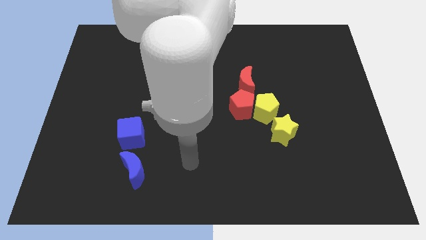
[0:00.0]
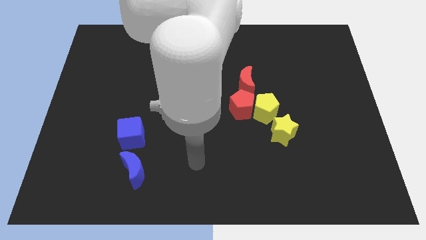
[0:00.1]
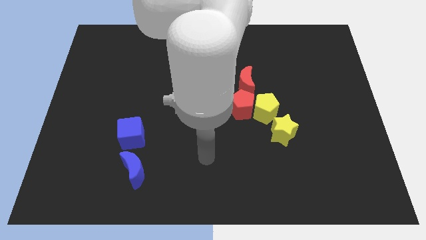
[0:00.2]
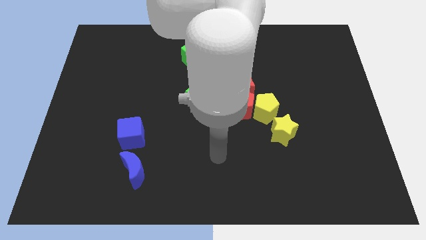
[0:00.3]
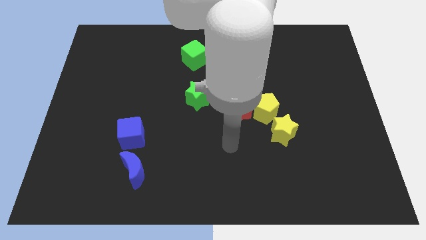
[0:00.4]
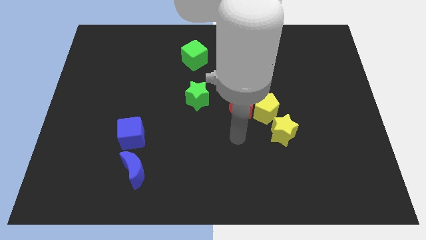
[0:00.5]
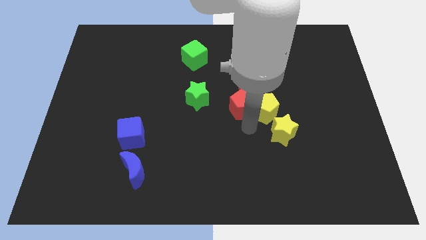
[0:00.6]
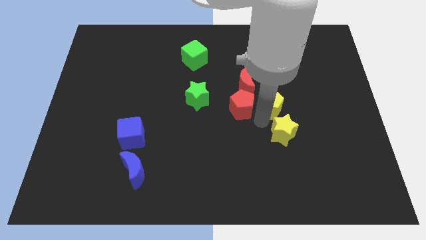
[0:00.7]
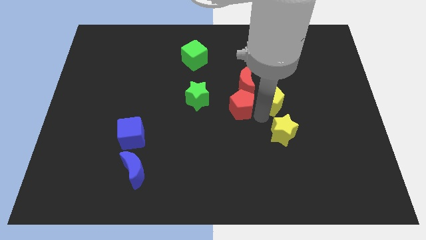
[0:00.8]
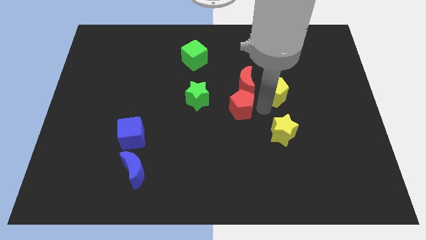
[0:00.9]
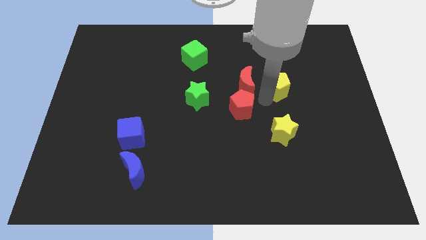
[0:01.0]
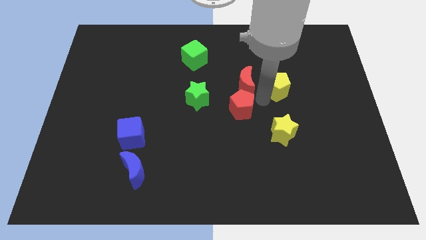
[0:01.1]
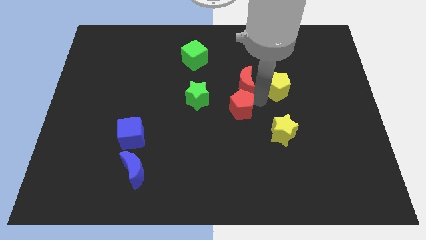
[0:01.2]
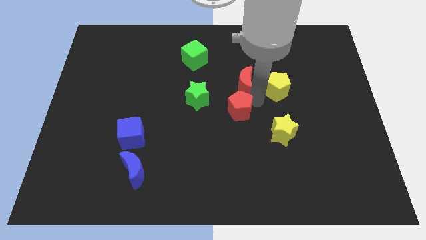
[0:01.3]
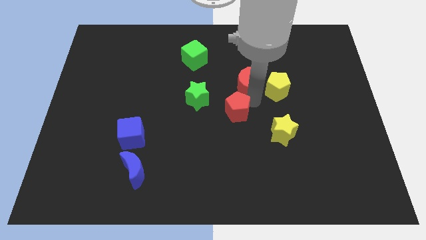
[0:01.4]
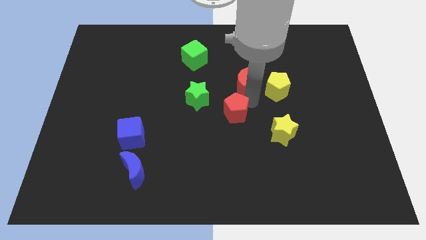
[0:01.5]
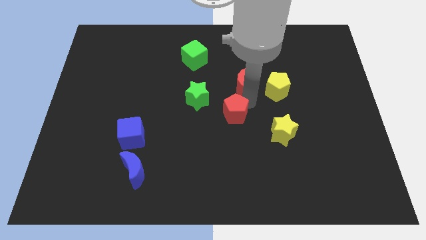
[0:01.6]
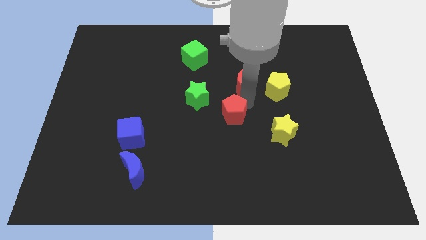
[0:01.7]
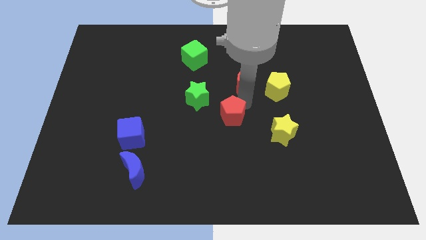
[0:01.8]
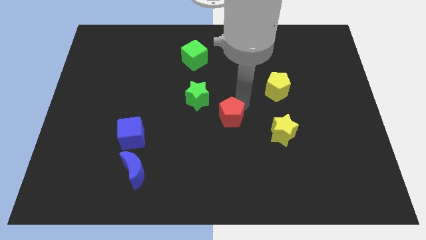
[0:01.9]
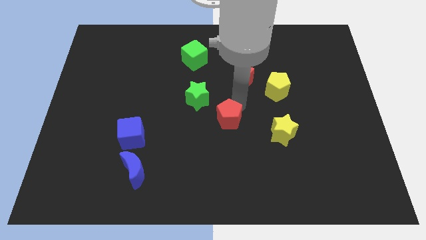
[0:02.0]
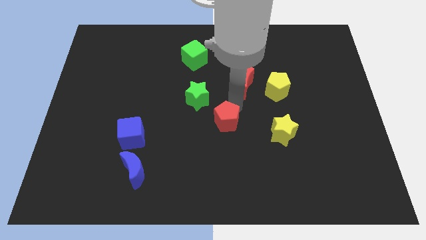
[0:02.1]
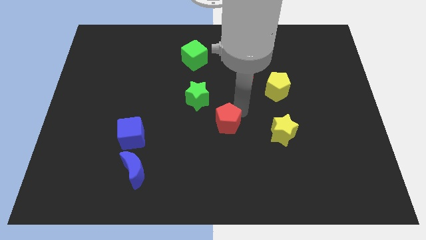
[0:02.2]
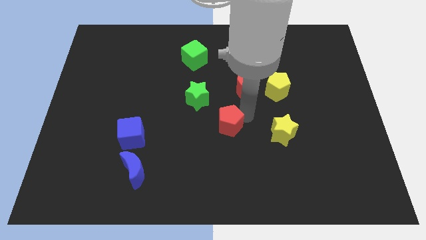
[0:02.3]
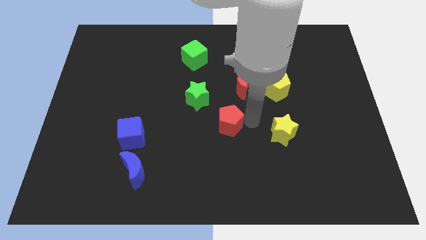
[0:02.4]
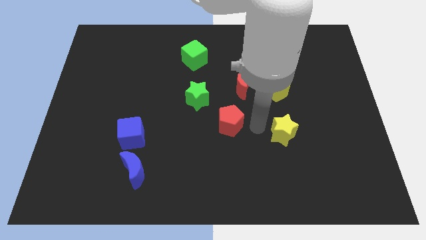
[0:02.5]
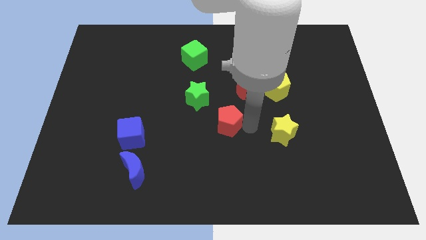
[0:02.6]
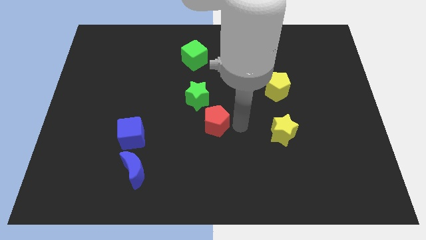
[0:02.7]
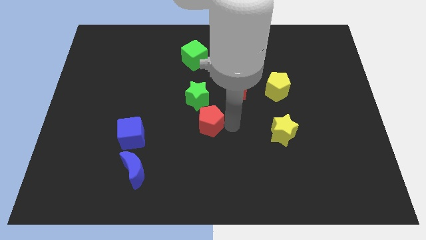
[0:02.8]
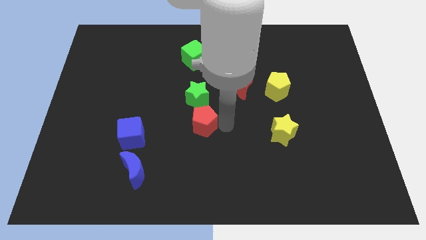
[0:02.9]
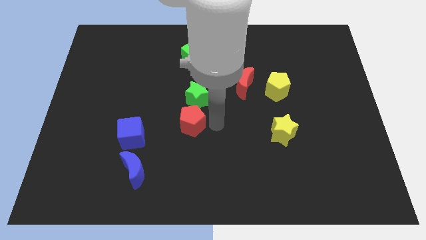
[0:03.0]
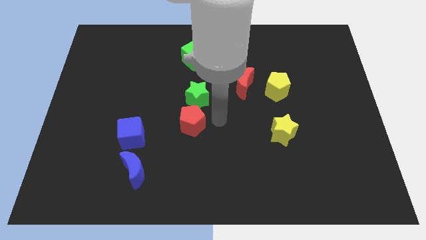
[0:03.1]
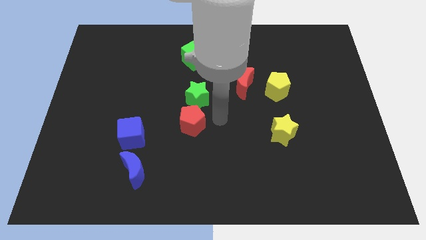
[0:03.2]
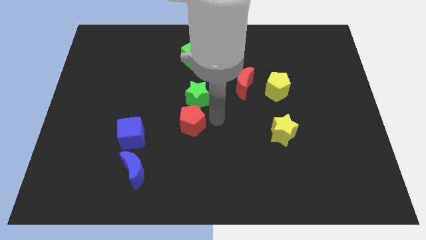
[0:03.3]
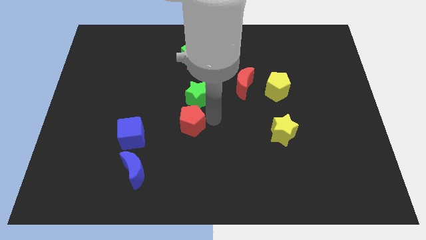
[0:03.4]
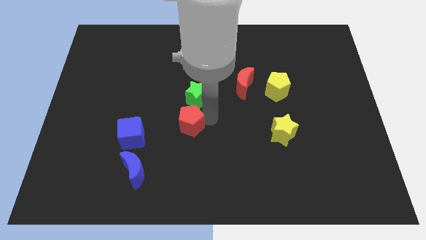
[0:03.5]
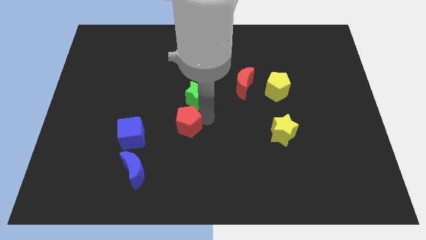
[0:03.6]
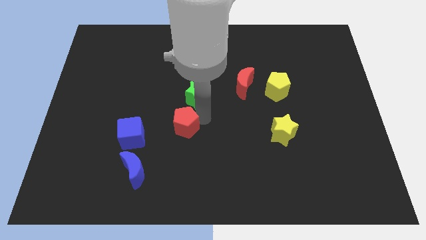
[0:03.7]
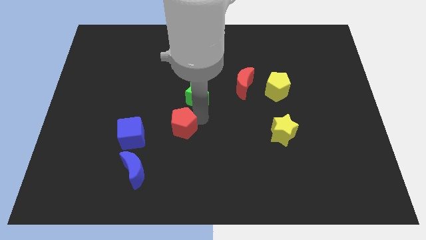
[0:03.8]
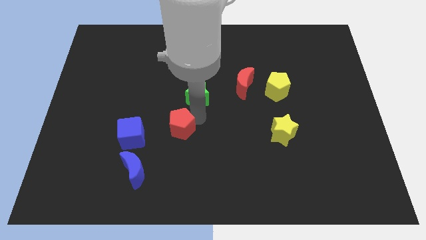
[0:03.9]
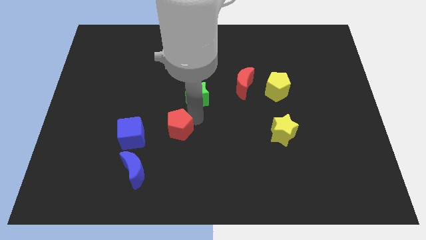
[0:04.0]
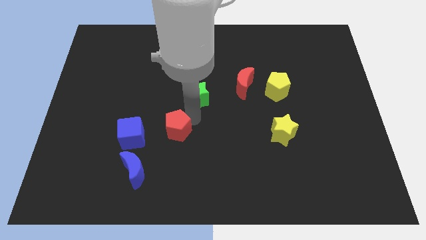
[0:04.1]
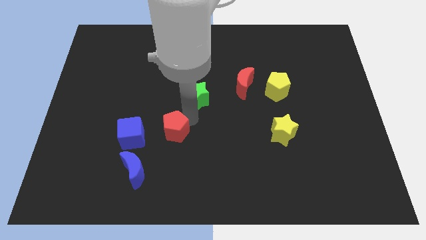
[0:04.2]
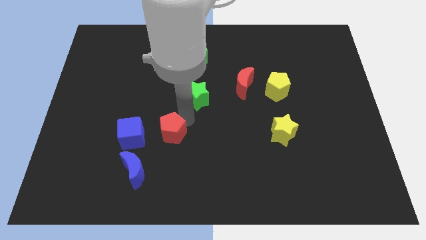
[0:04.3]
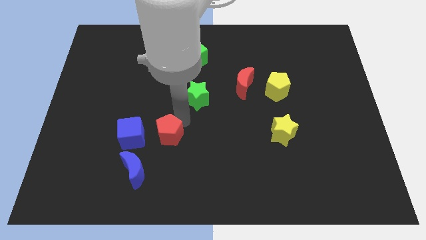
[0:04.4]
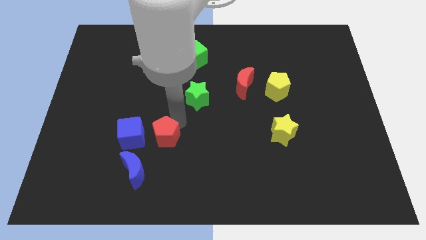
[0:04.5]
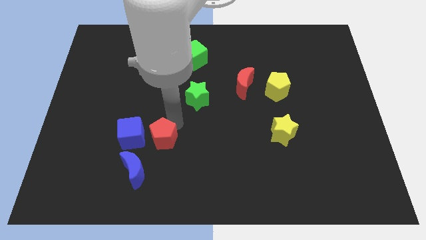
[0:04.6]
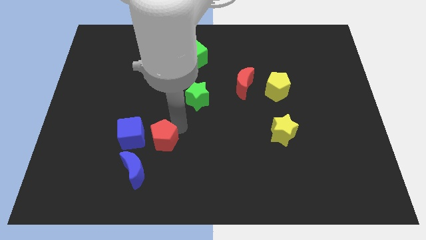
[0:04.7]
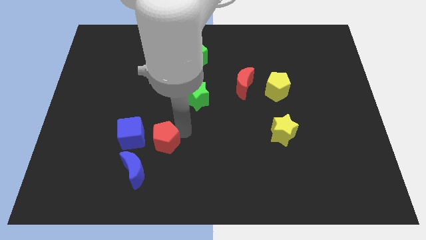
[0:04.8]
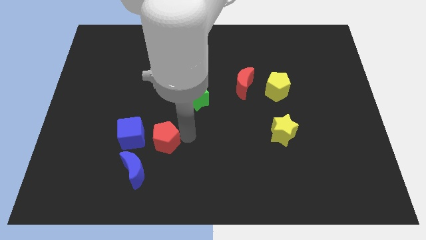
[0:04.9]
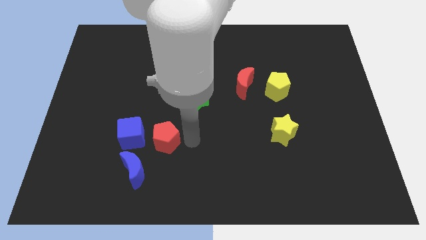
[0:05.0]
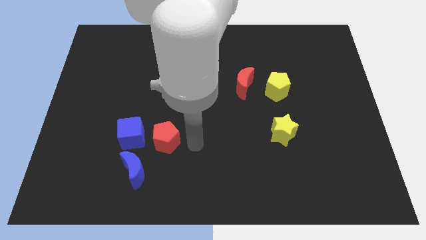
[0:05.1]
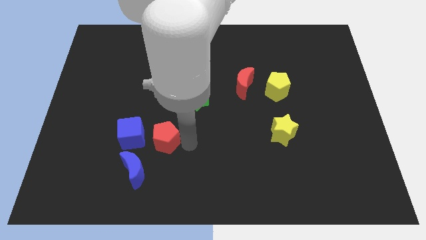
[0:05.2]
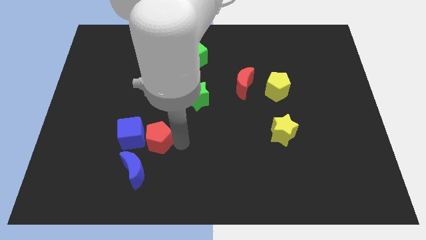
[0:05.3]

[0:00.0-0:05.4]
slide the red pentagon towards the blue cube

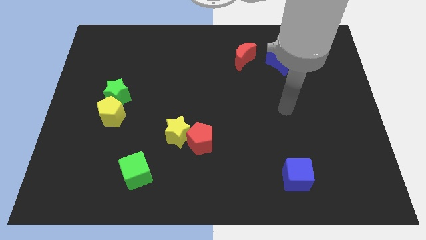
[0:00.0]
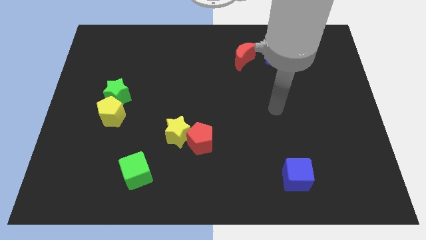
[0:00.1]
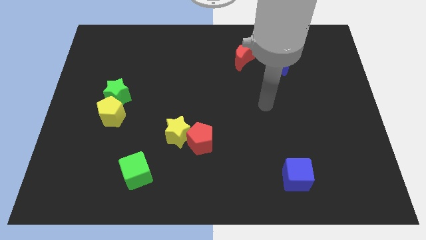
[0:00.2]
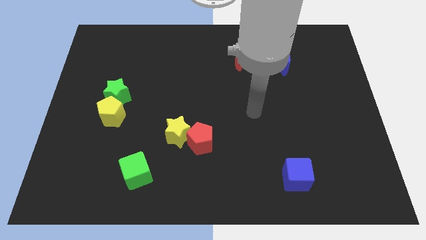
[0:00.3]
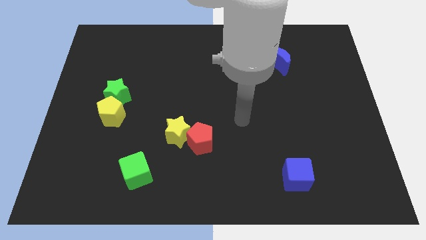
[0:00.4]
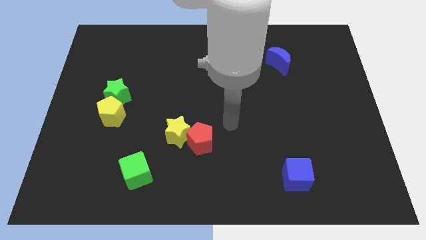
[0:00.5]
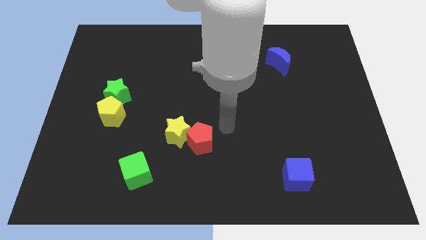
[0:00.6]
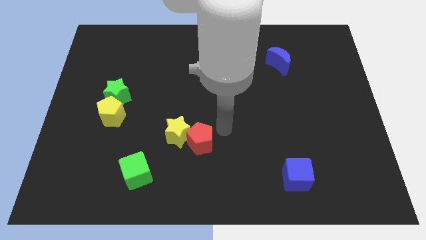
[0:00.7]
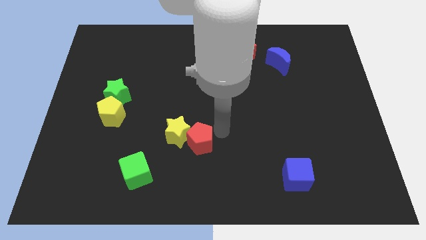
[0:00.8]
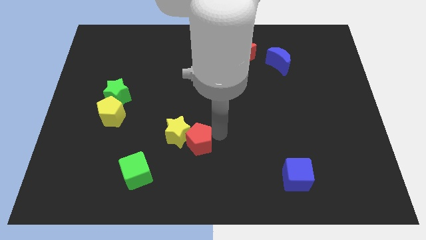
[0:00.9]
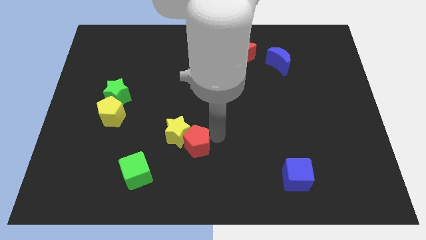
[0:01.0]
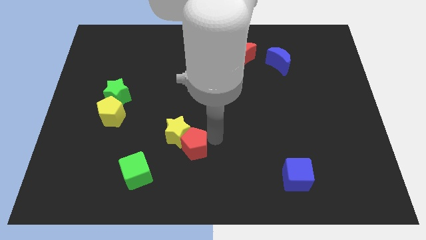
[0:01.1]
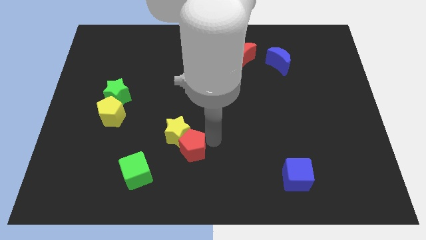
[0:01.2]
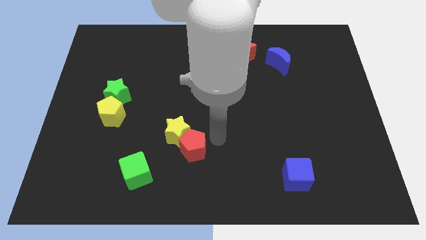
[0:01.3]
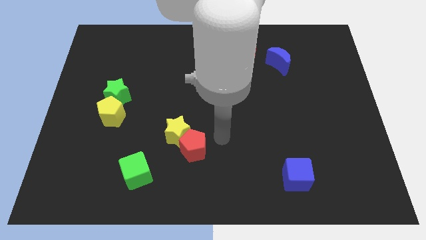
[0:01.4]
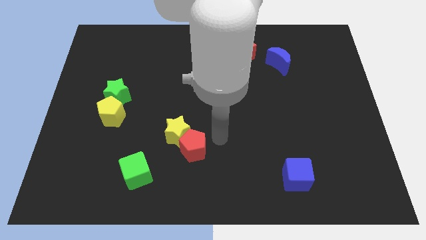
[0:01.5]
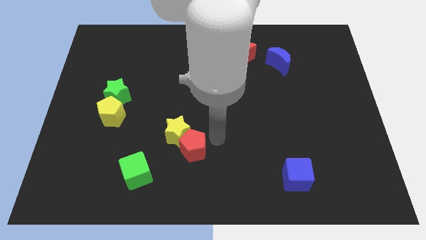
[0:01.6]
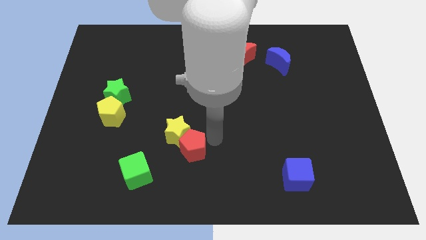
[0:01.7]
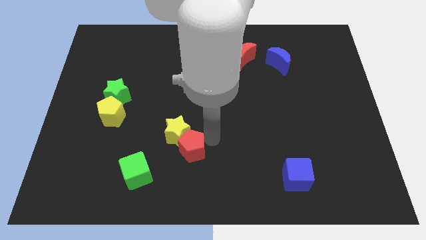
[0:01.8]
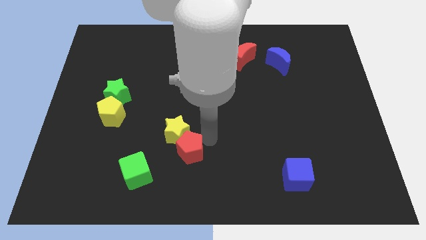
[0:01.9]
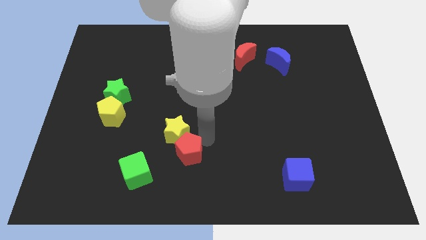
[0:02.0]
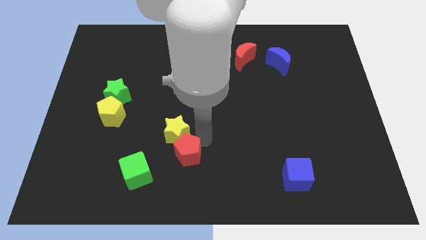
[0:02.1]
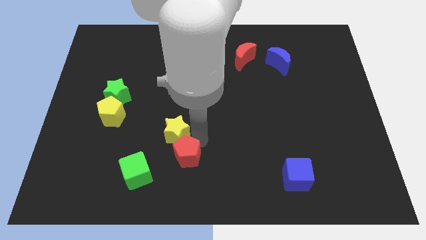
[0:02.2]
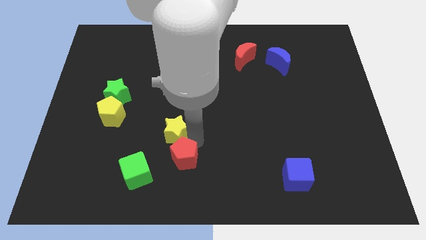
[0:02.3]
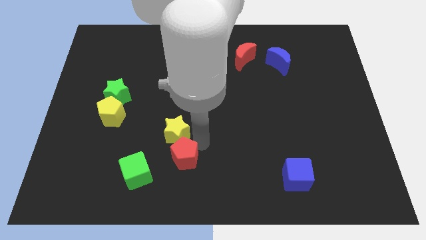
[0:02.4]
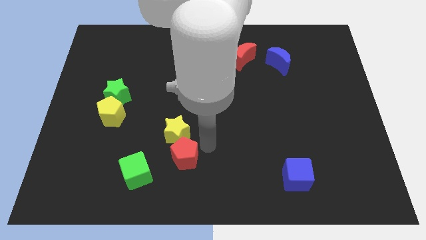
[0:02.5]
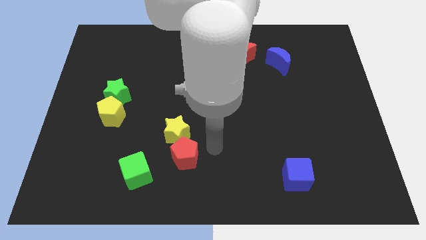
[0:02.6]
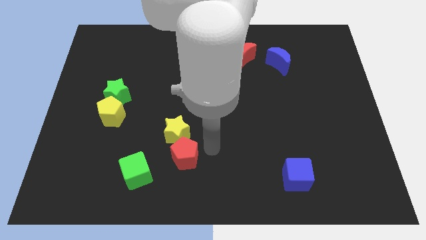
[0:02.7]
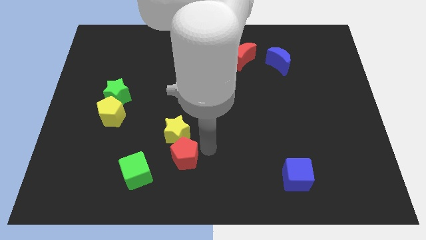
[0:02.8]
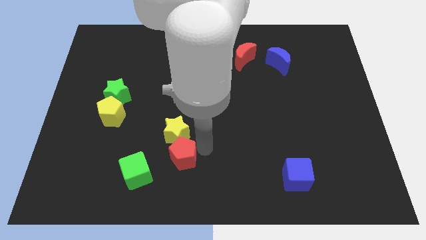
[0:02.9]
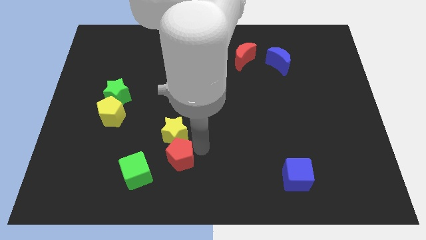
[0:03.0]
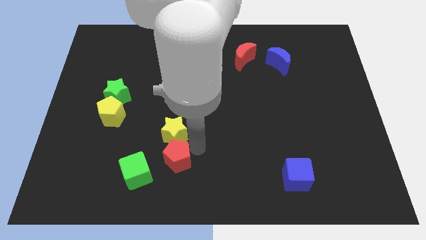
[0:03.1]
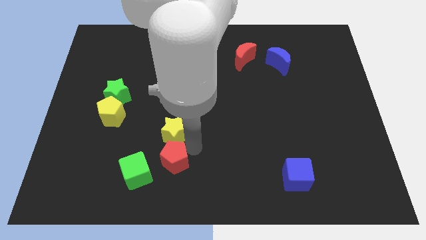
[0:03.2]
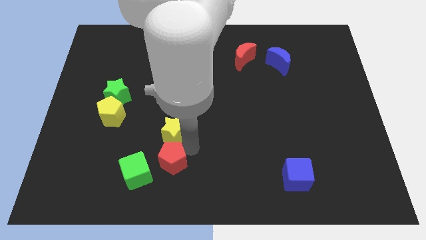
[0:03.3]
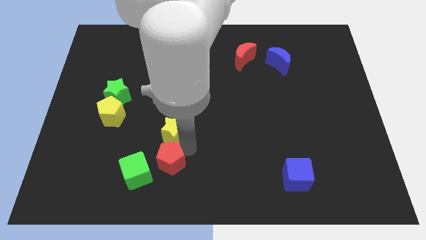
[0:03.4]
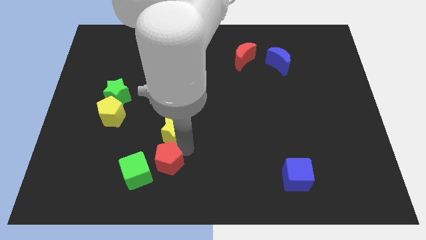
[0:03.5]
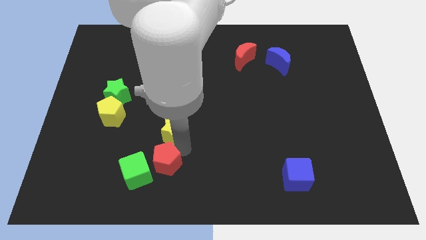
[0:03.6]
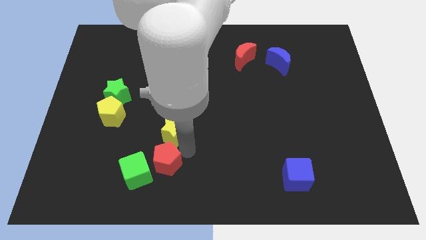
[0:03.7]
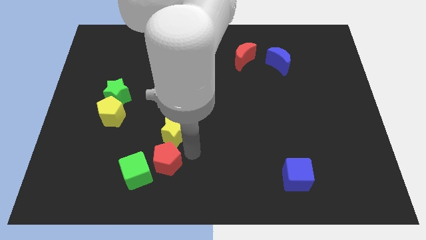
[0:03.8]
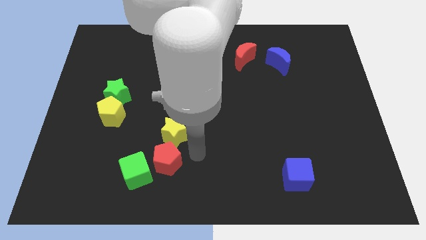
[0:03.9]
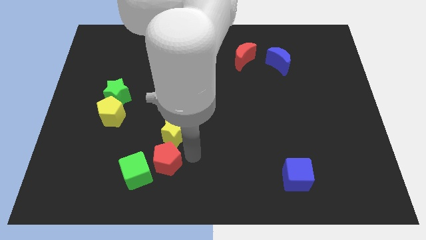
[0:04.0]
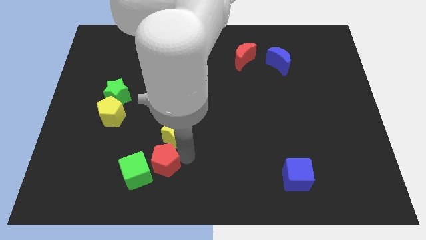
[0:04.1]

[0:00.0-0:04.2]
put the red pentagon next to the green cube
